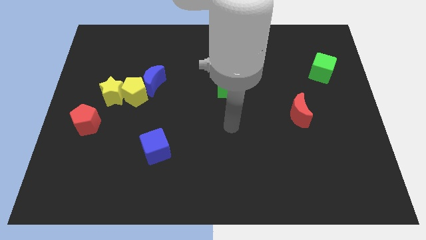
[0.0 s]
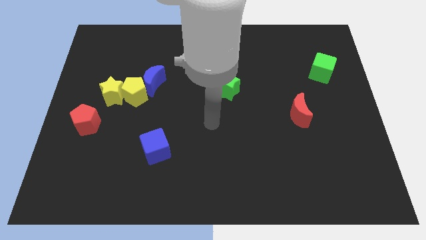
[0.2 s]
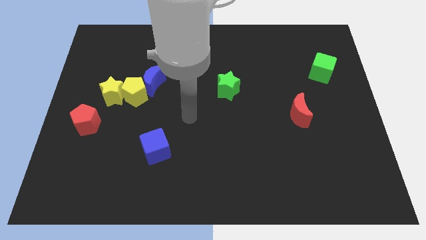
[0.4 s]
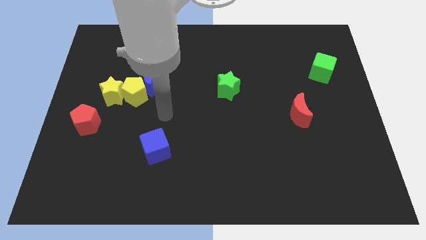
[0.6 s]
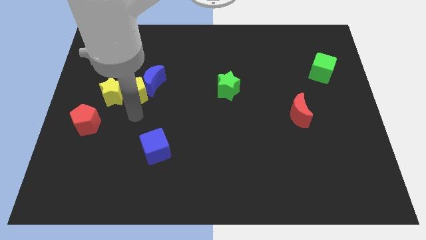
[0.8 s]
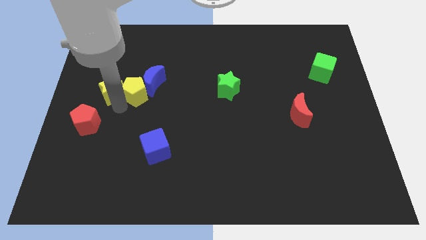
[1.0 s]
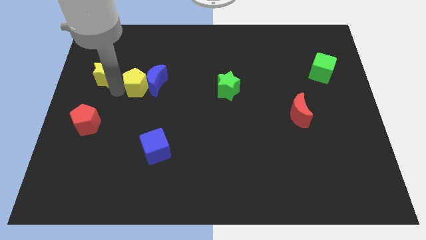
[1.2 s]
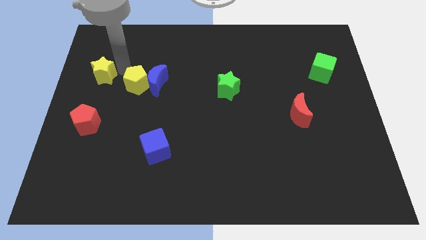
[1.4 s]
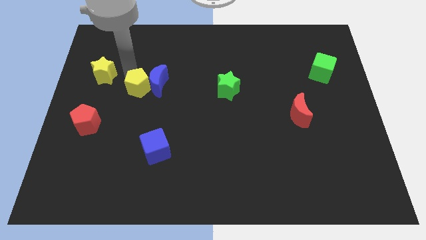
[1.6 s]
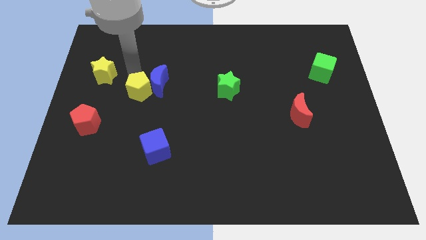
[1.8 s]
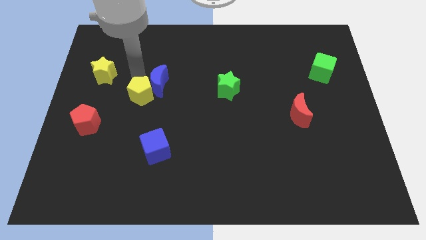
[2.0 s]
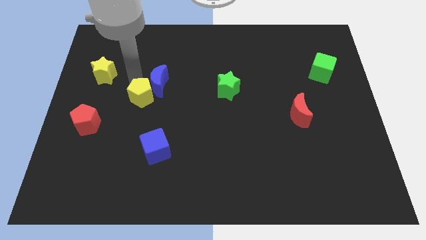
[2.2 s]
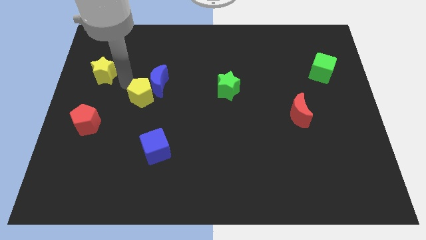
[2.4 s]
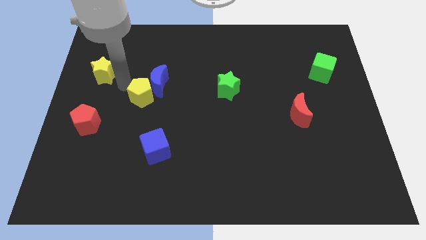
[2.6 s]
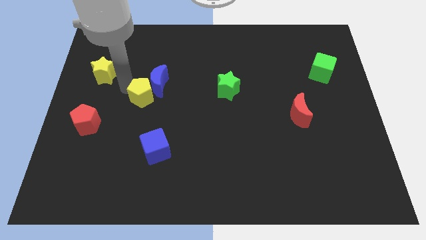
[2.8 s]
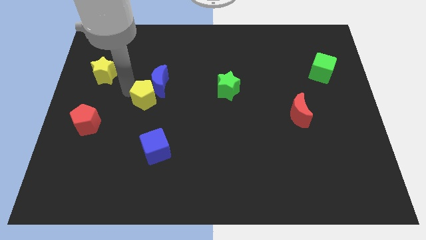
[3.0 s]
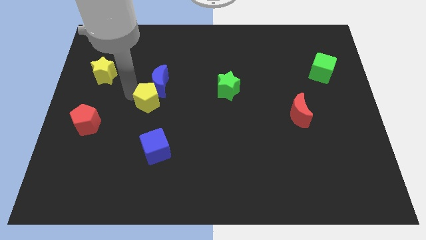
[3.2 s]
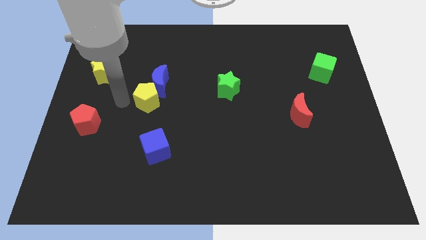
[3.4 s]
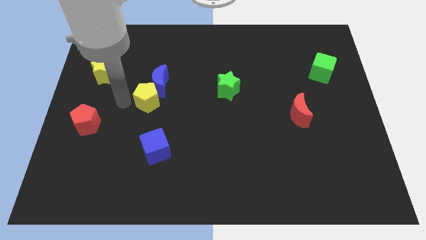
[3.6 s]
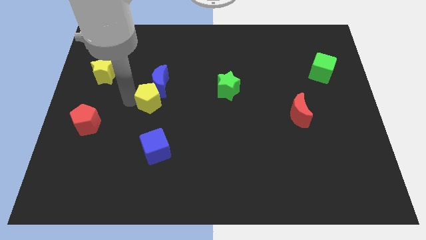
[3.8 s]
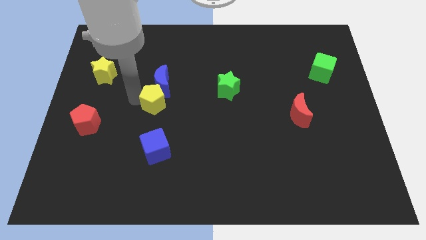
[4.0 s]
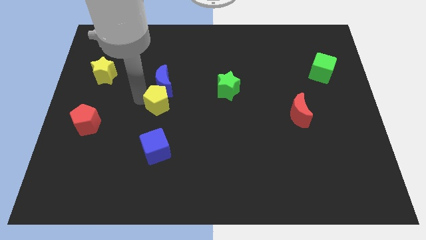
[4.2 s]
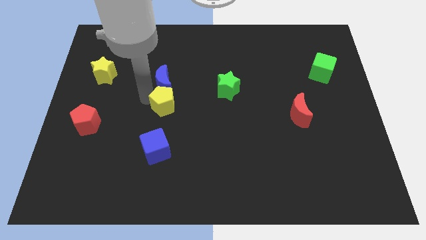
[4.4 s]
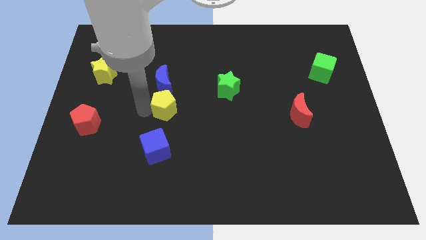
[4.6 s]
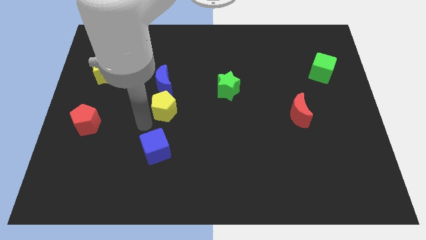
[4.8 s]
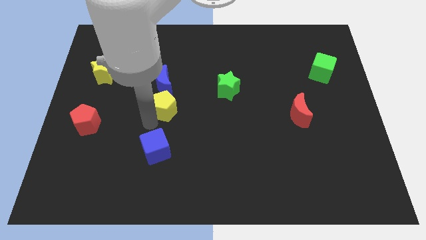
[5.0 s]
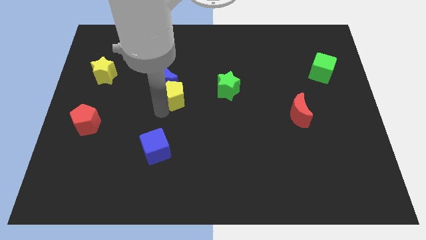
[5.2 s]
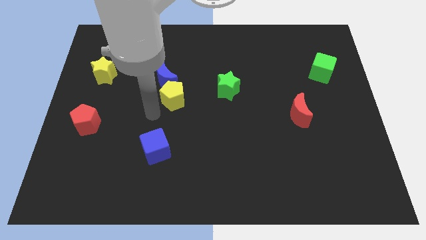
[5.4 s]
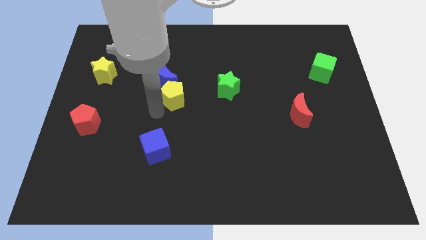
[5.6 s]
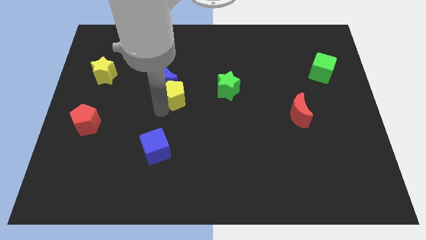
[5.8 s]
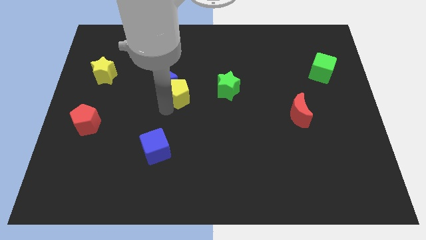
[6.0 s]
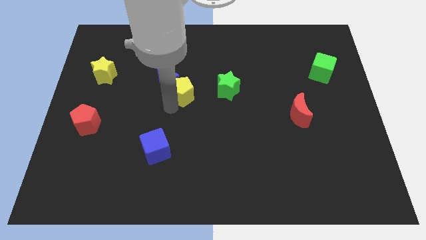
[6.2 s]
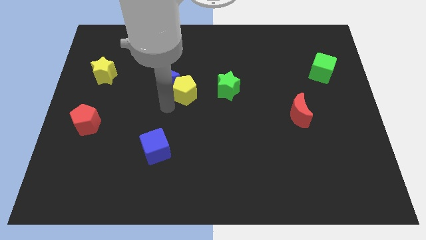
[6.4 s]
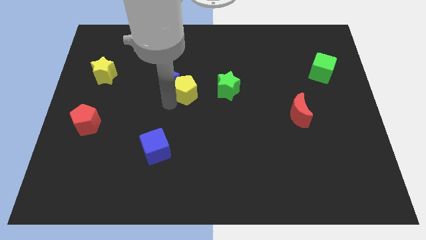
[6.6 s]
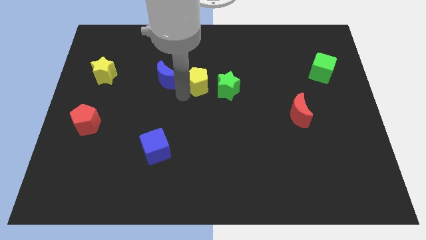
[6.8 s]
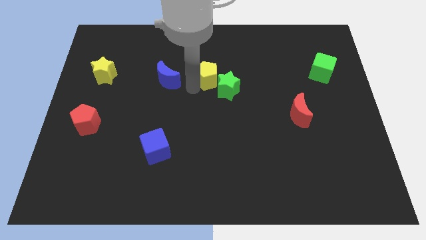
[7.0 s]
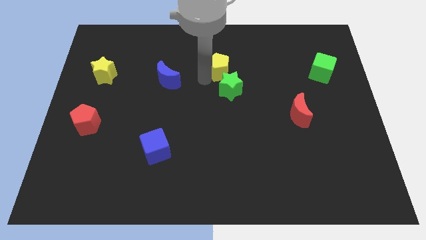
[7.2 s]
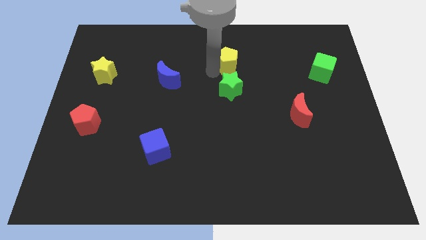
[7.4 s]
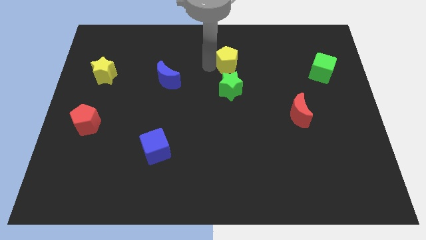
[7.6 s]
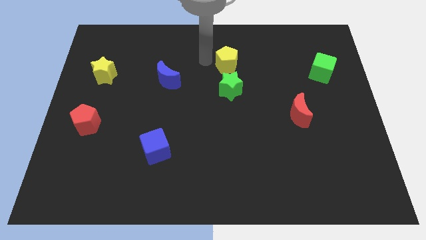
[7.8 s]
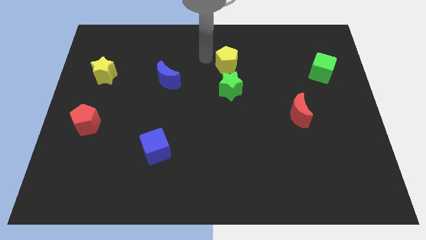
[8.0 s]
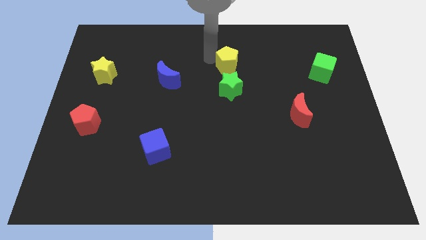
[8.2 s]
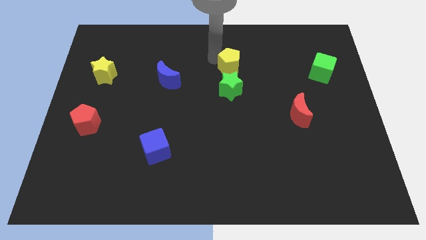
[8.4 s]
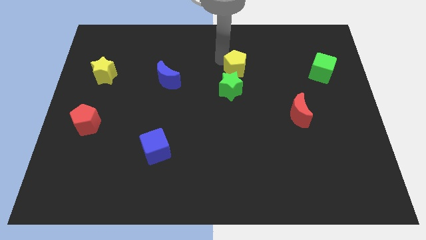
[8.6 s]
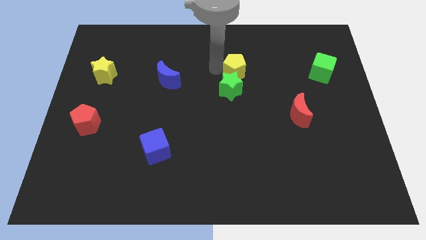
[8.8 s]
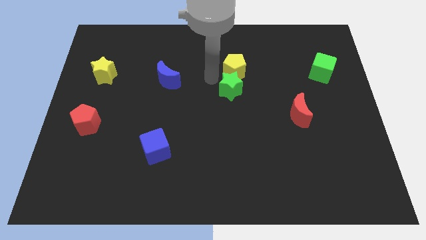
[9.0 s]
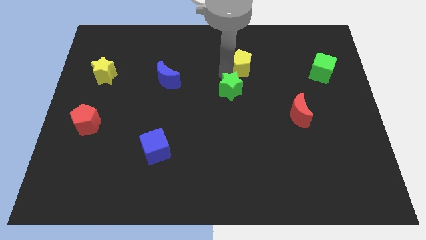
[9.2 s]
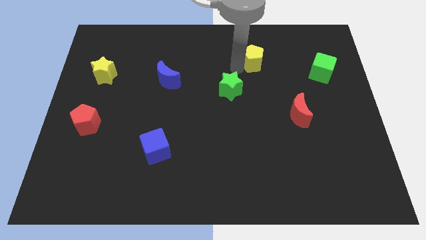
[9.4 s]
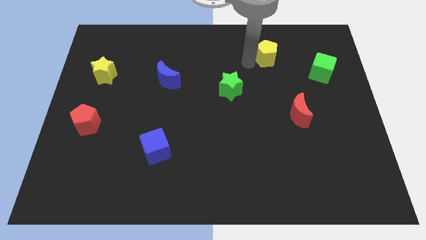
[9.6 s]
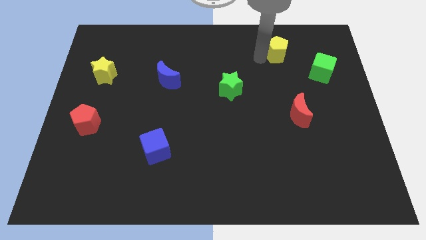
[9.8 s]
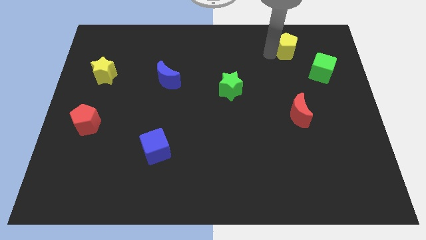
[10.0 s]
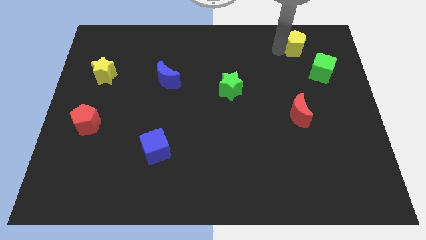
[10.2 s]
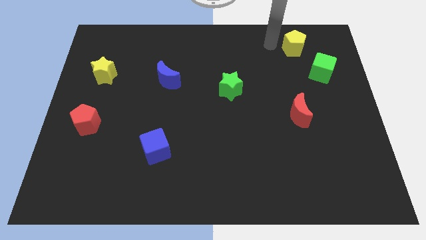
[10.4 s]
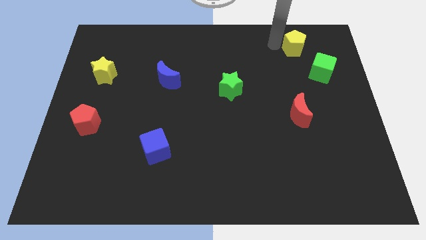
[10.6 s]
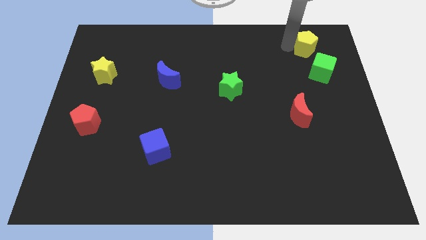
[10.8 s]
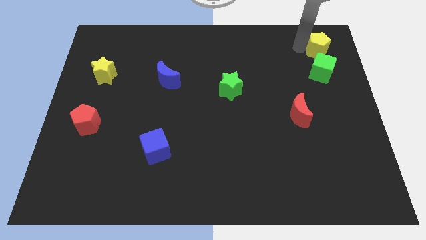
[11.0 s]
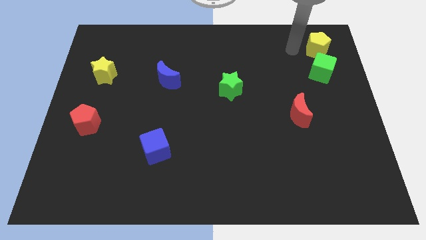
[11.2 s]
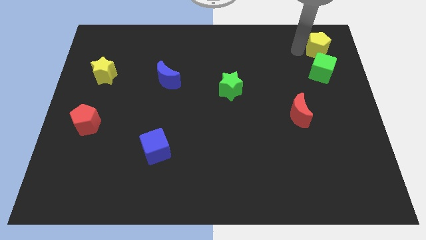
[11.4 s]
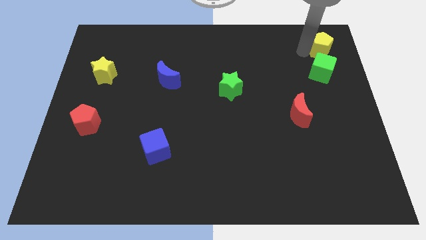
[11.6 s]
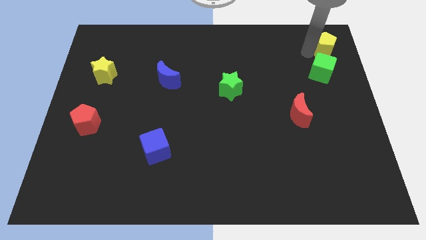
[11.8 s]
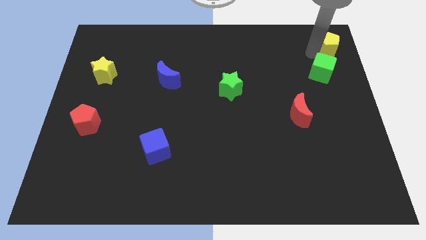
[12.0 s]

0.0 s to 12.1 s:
slide the yellow pentagon to the top right corner

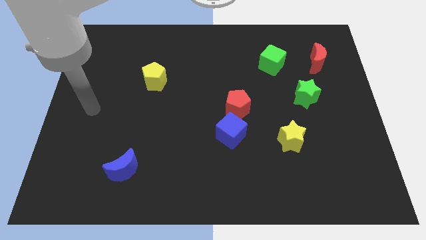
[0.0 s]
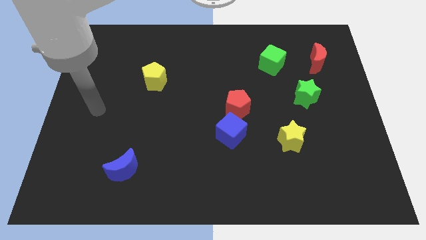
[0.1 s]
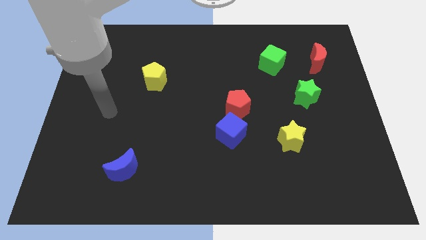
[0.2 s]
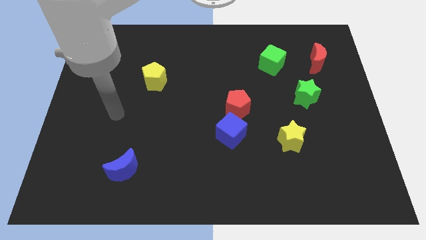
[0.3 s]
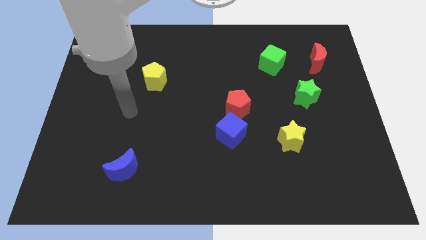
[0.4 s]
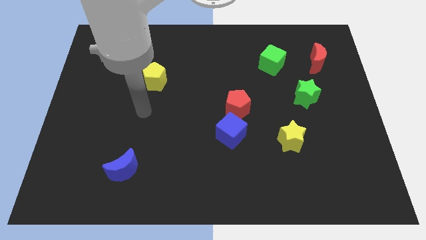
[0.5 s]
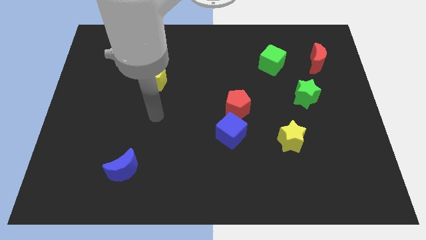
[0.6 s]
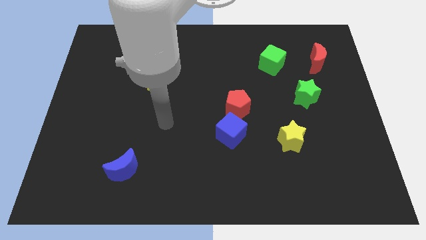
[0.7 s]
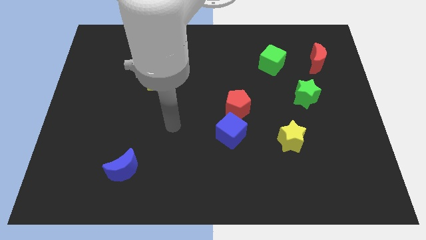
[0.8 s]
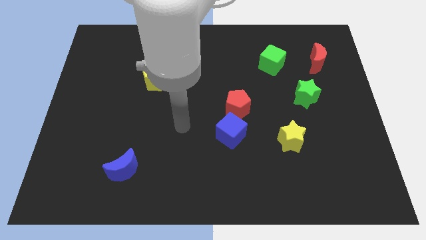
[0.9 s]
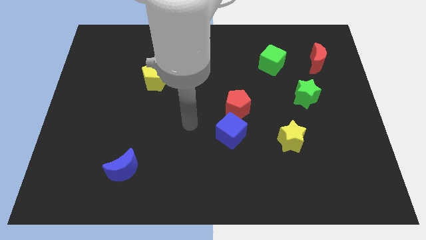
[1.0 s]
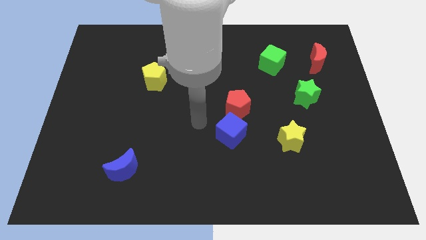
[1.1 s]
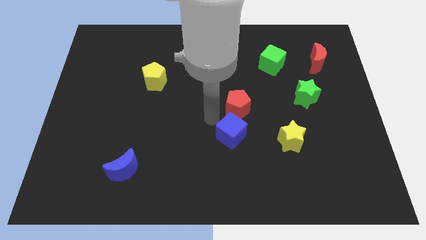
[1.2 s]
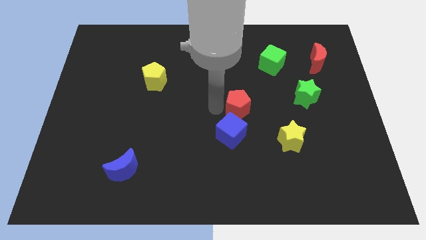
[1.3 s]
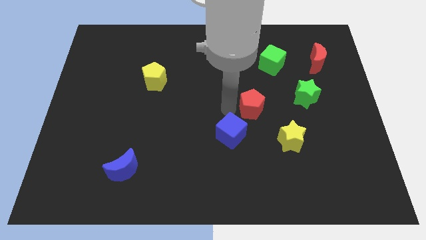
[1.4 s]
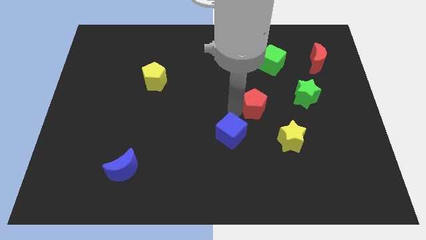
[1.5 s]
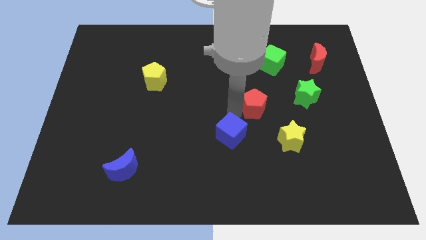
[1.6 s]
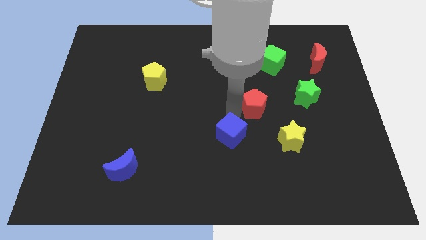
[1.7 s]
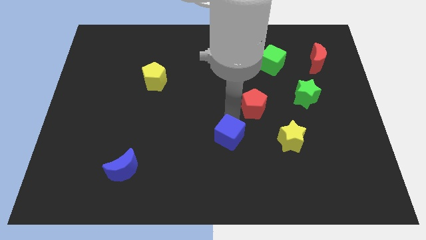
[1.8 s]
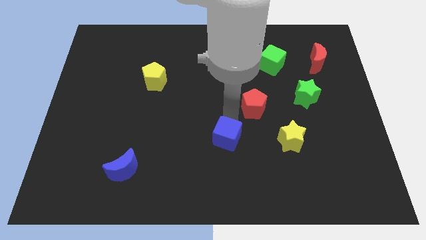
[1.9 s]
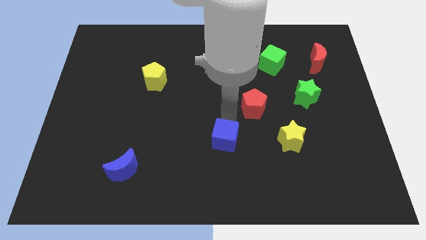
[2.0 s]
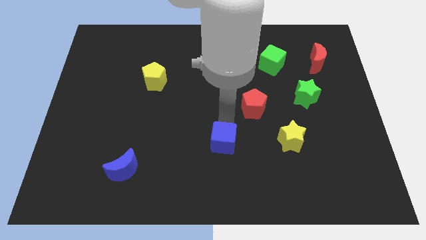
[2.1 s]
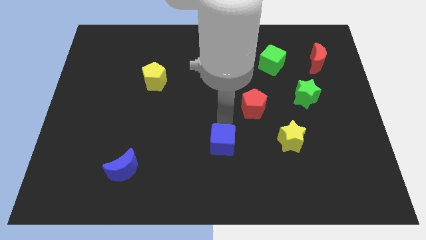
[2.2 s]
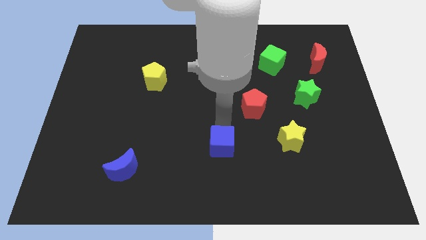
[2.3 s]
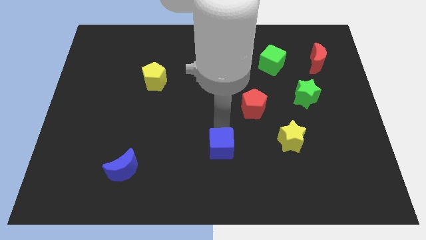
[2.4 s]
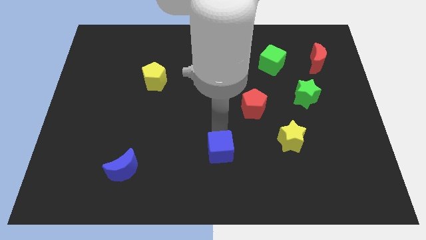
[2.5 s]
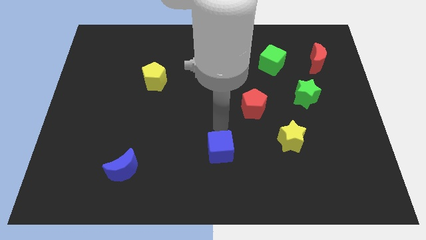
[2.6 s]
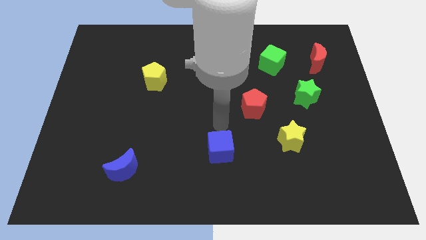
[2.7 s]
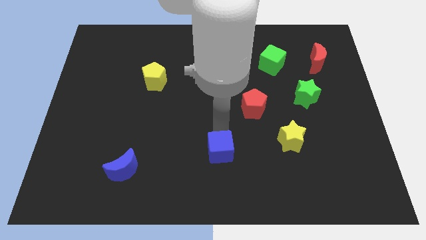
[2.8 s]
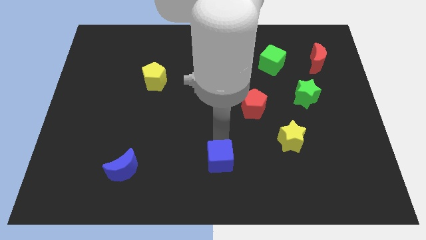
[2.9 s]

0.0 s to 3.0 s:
push the blue cube to the bottom
